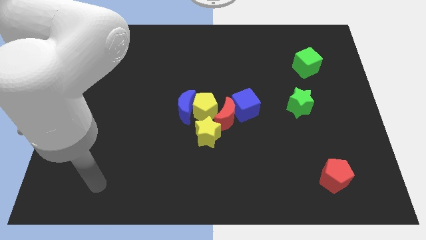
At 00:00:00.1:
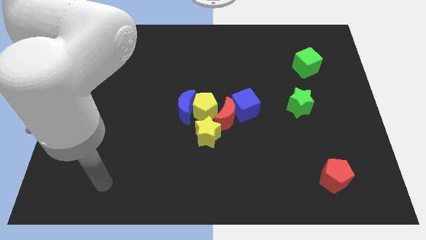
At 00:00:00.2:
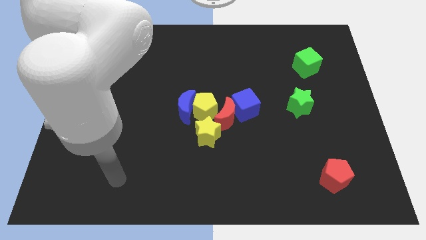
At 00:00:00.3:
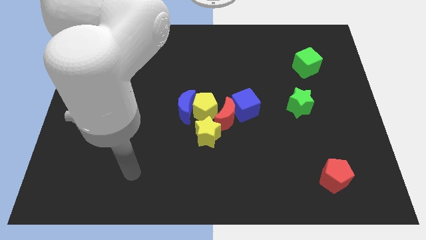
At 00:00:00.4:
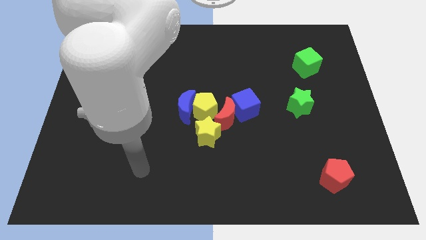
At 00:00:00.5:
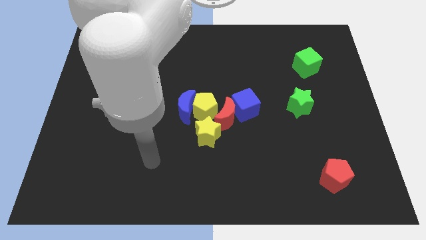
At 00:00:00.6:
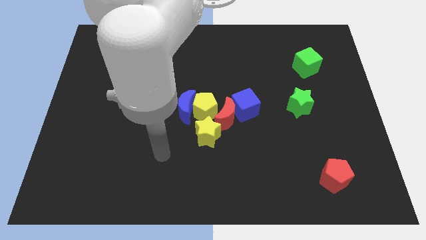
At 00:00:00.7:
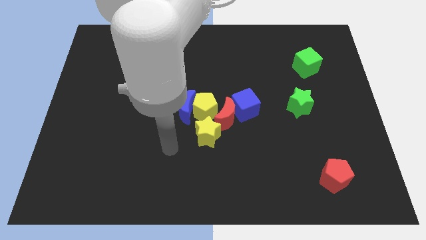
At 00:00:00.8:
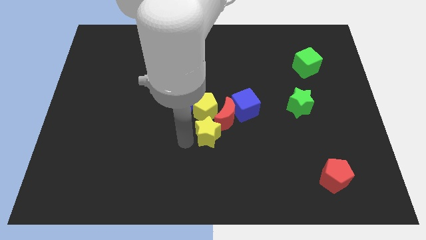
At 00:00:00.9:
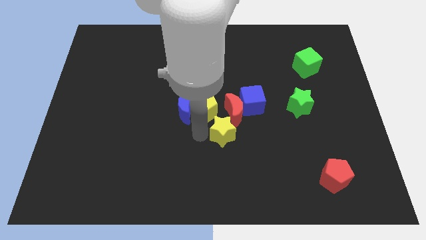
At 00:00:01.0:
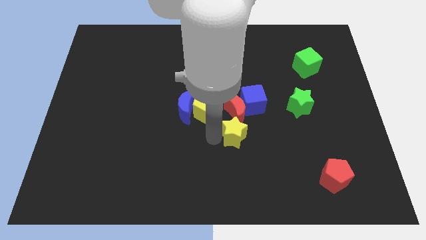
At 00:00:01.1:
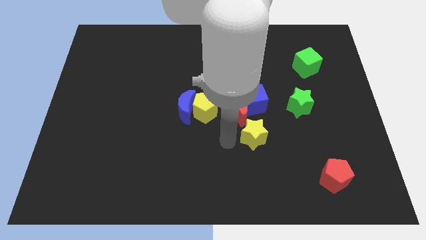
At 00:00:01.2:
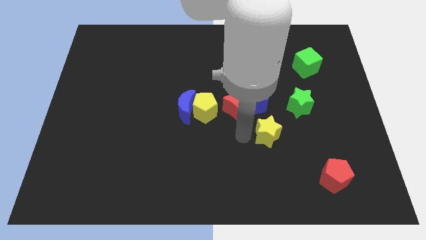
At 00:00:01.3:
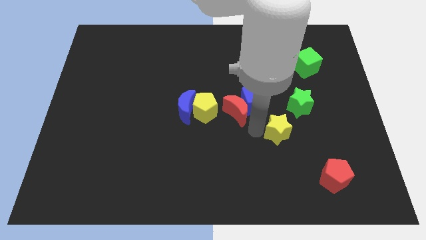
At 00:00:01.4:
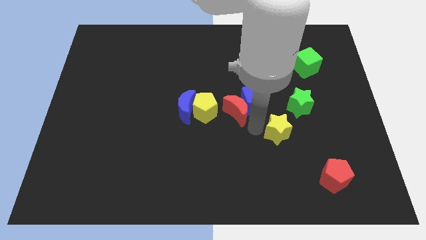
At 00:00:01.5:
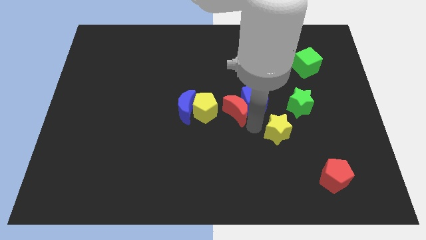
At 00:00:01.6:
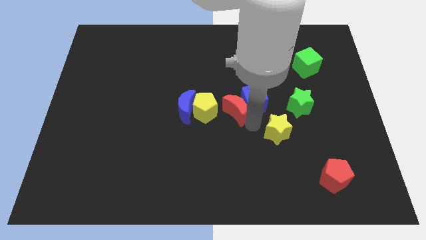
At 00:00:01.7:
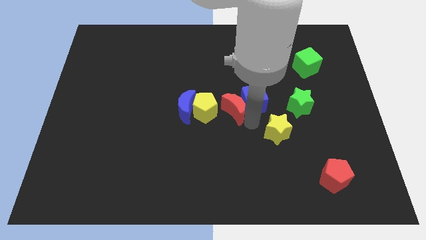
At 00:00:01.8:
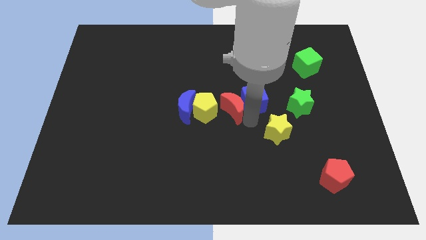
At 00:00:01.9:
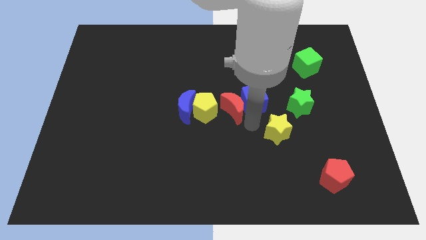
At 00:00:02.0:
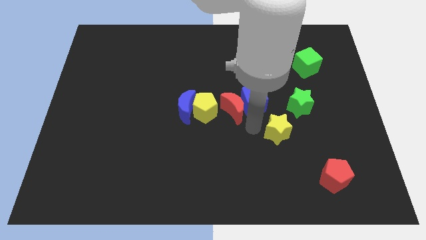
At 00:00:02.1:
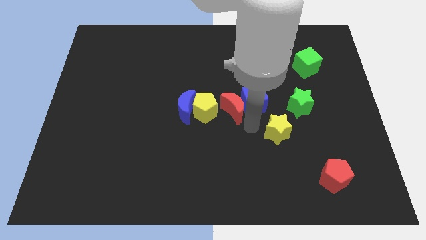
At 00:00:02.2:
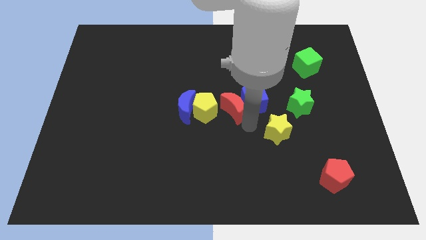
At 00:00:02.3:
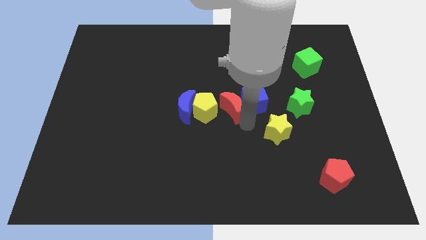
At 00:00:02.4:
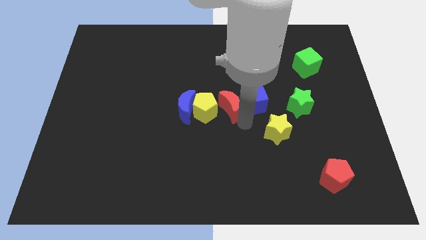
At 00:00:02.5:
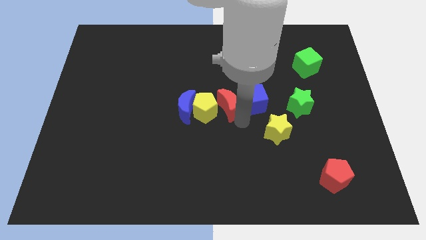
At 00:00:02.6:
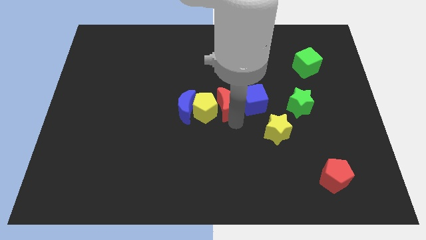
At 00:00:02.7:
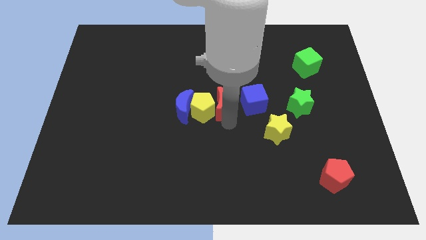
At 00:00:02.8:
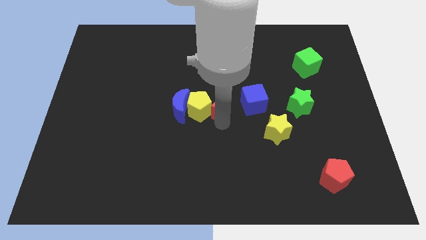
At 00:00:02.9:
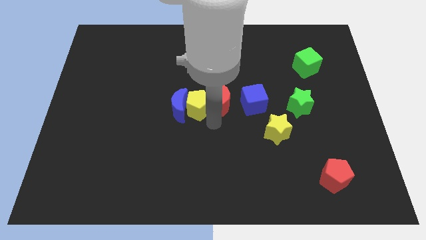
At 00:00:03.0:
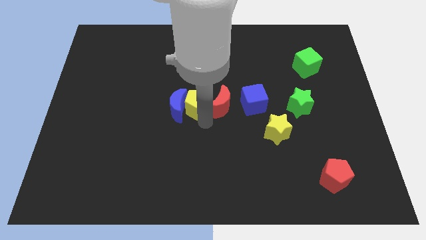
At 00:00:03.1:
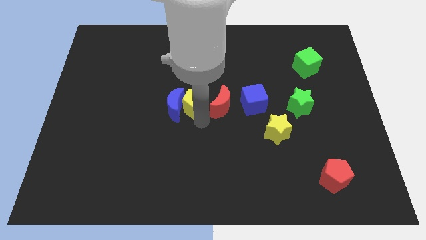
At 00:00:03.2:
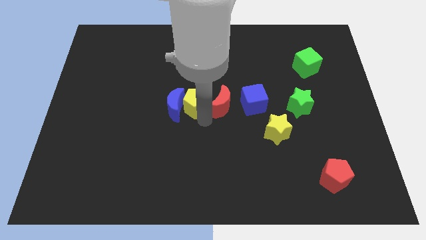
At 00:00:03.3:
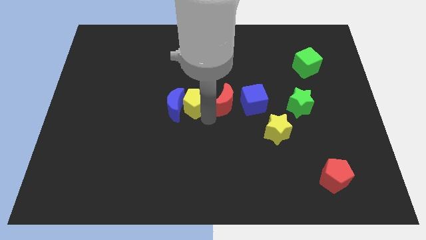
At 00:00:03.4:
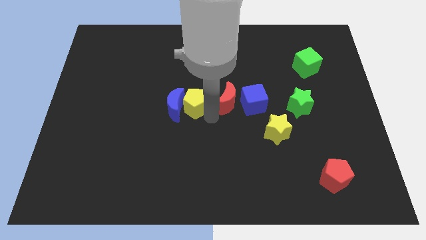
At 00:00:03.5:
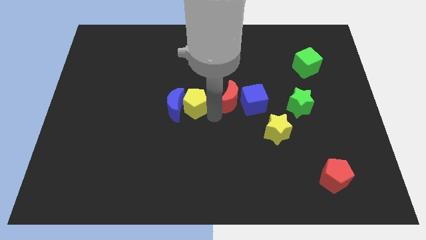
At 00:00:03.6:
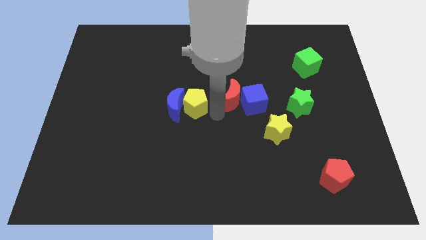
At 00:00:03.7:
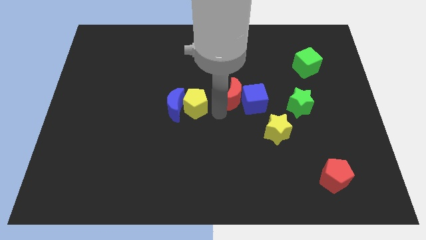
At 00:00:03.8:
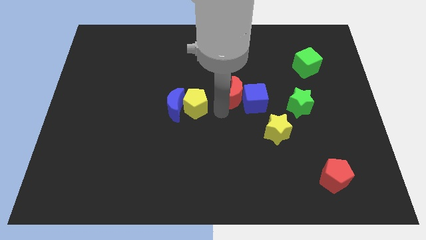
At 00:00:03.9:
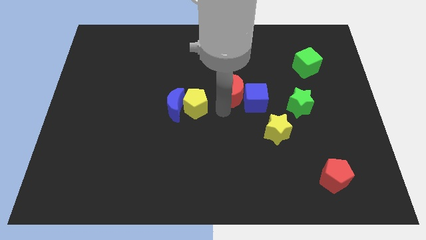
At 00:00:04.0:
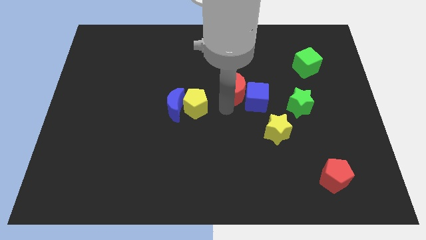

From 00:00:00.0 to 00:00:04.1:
slightly move the red moon up and to the right diagonally

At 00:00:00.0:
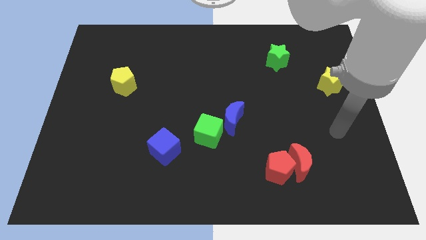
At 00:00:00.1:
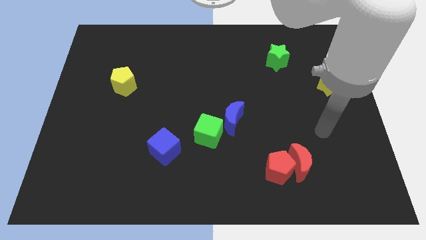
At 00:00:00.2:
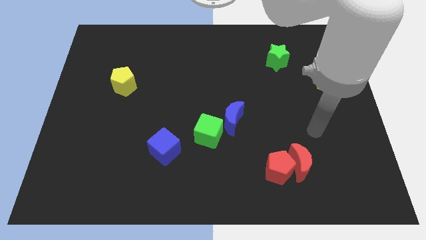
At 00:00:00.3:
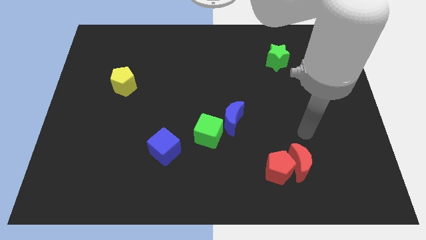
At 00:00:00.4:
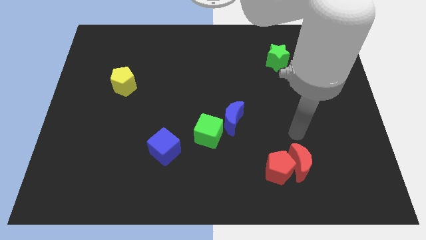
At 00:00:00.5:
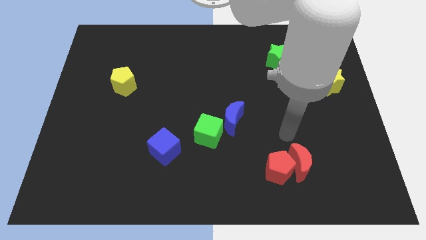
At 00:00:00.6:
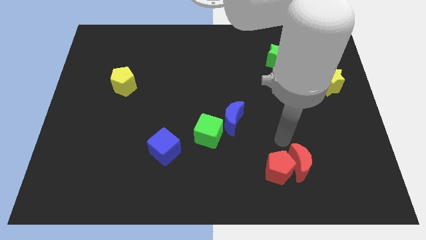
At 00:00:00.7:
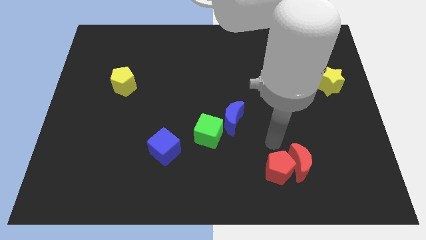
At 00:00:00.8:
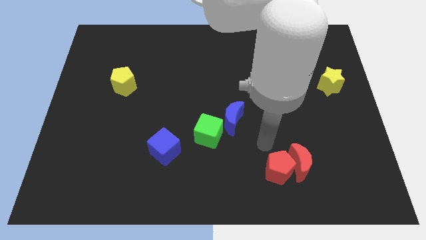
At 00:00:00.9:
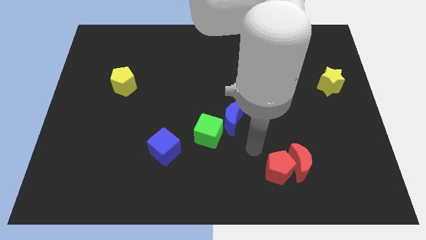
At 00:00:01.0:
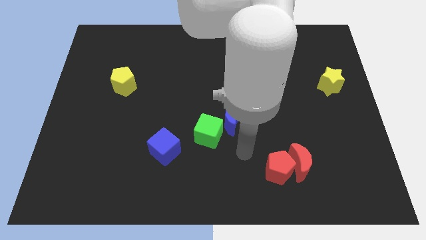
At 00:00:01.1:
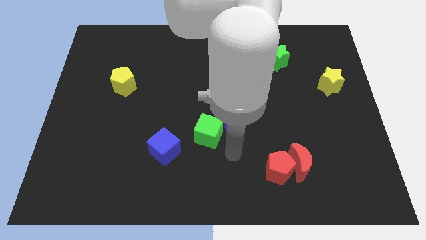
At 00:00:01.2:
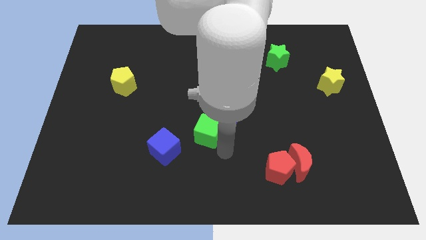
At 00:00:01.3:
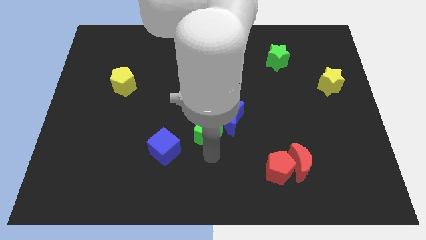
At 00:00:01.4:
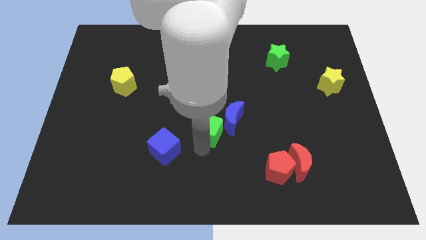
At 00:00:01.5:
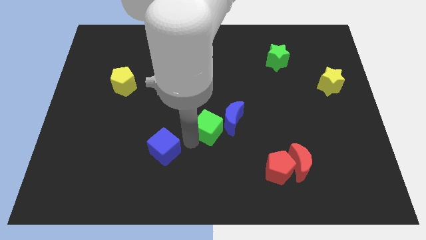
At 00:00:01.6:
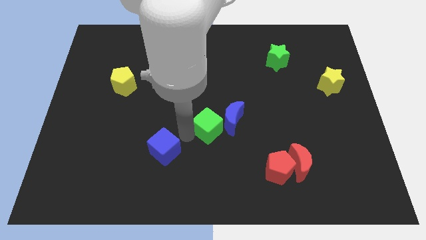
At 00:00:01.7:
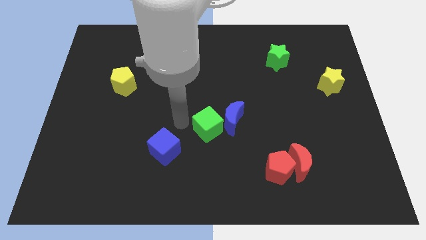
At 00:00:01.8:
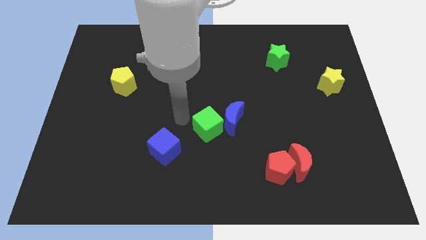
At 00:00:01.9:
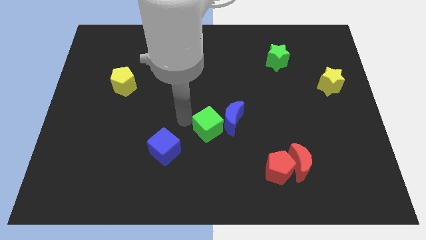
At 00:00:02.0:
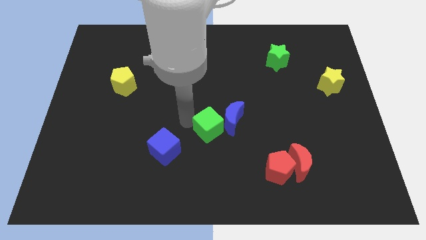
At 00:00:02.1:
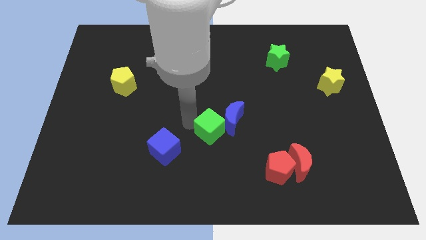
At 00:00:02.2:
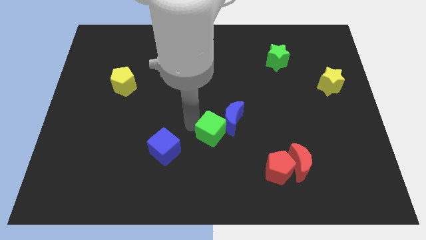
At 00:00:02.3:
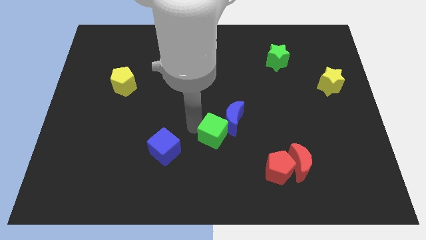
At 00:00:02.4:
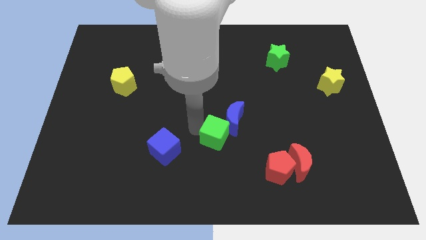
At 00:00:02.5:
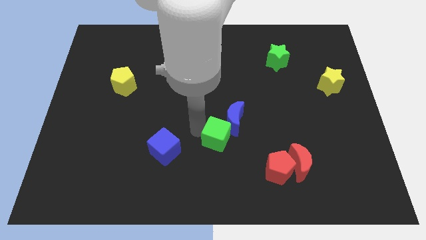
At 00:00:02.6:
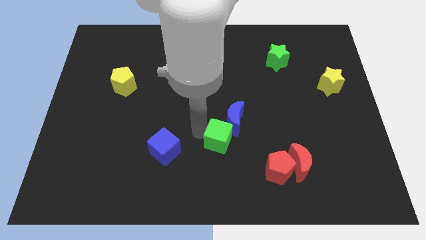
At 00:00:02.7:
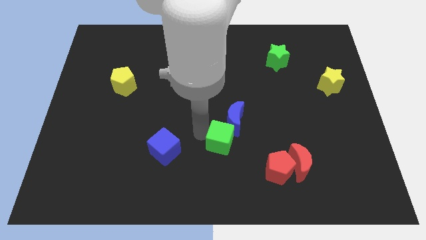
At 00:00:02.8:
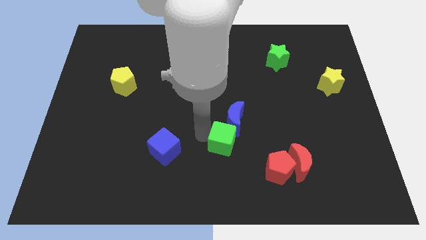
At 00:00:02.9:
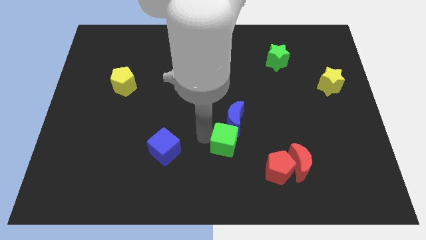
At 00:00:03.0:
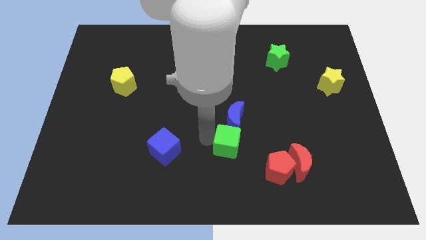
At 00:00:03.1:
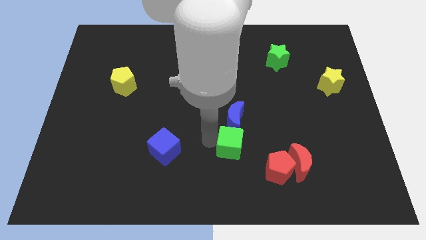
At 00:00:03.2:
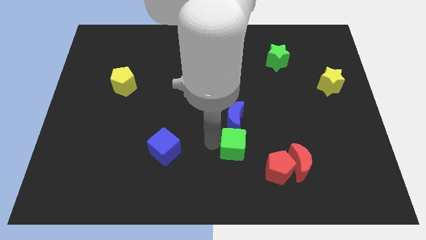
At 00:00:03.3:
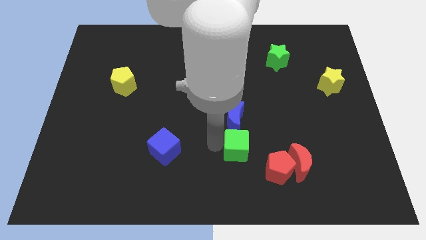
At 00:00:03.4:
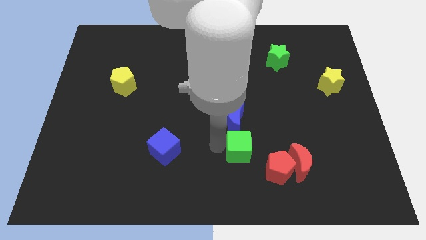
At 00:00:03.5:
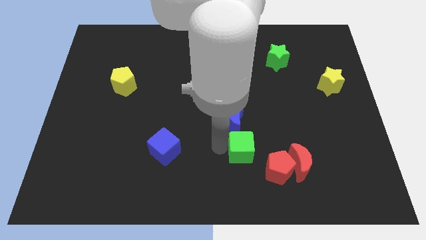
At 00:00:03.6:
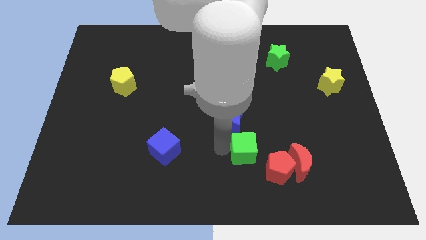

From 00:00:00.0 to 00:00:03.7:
move the green cube a little right

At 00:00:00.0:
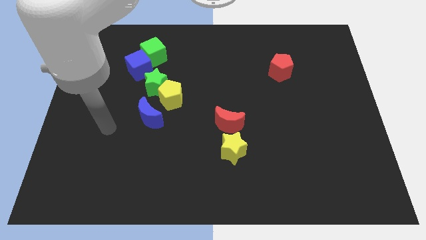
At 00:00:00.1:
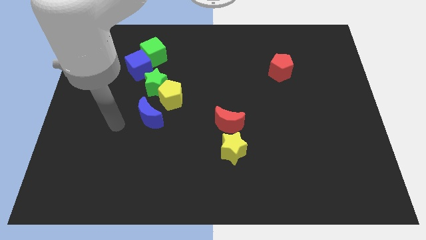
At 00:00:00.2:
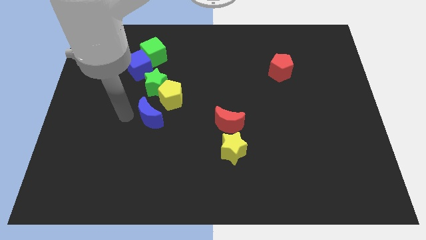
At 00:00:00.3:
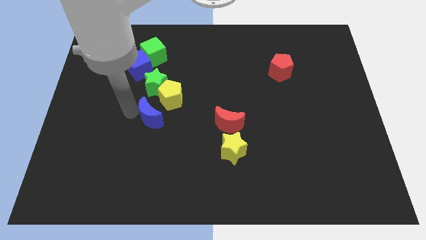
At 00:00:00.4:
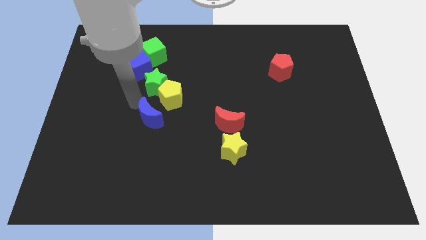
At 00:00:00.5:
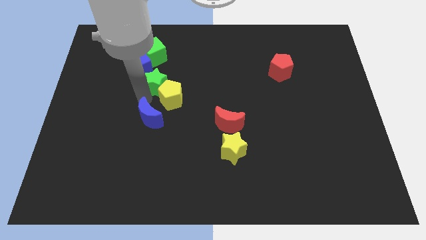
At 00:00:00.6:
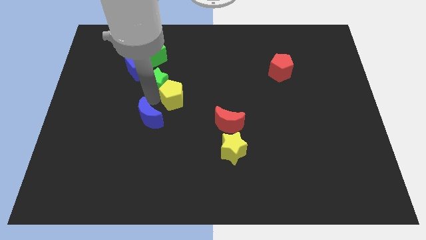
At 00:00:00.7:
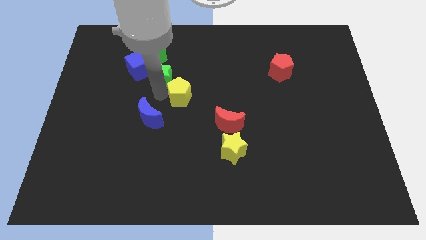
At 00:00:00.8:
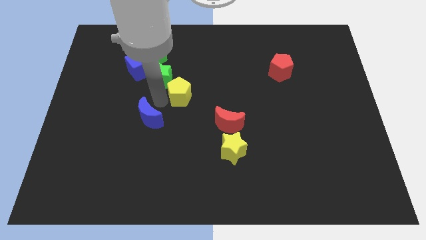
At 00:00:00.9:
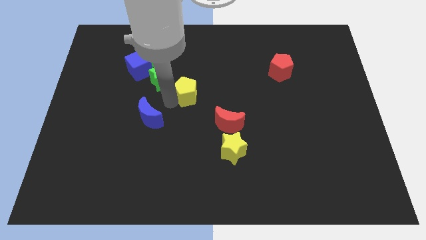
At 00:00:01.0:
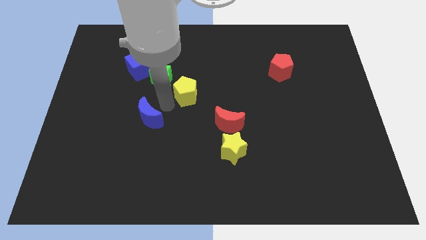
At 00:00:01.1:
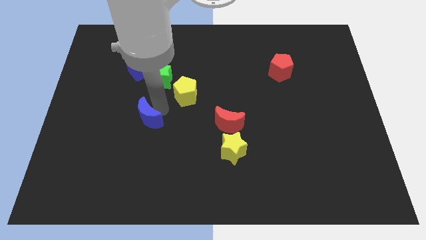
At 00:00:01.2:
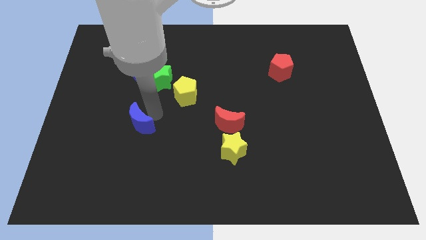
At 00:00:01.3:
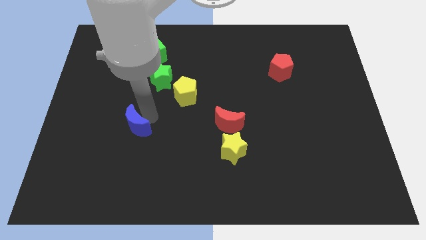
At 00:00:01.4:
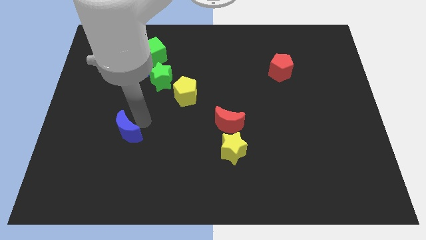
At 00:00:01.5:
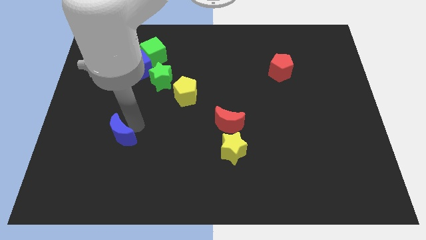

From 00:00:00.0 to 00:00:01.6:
move the blue moon a bit downwards and left diagonally
